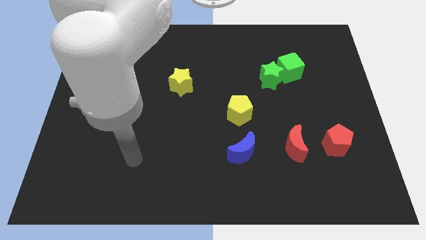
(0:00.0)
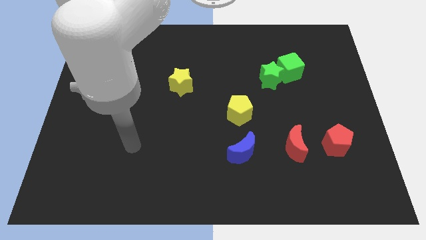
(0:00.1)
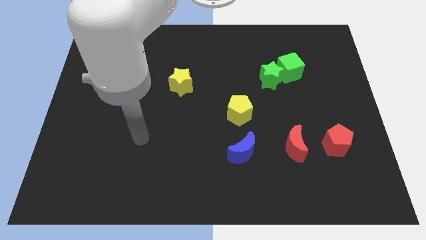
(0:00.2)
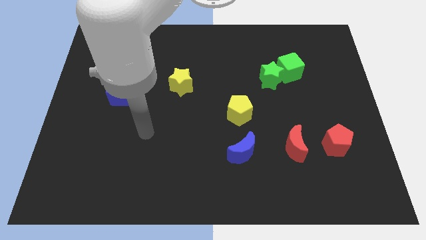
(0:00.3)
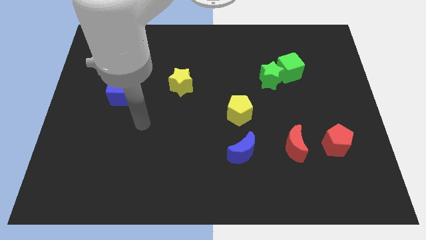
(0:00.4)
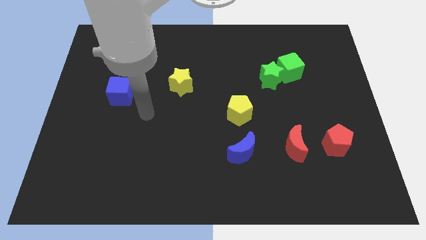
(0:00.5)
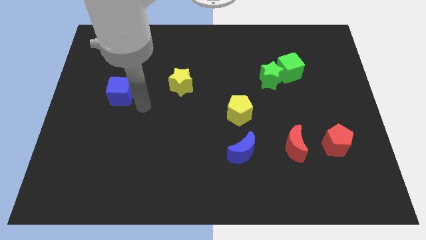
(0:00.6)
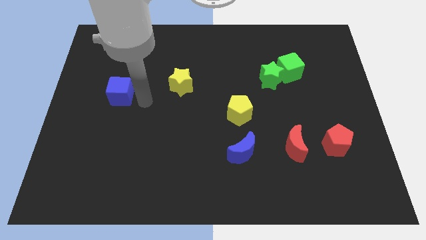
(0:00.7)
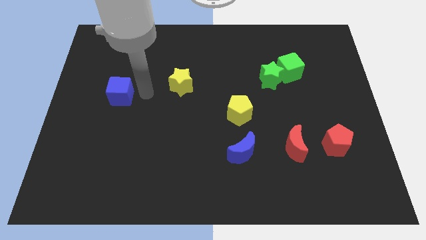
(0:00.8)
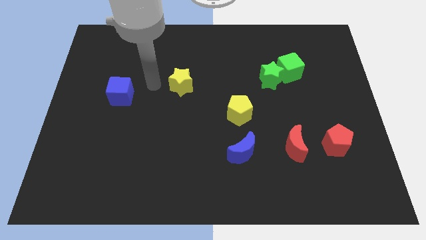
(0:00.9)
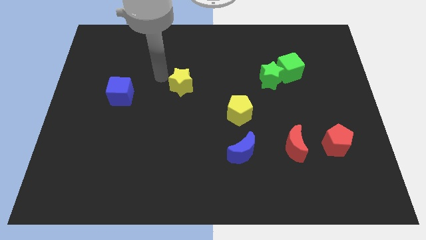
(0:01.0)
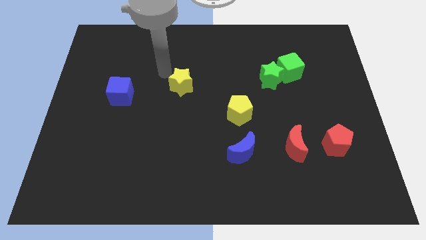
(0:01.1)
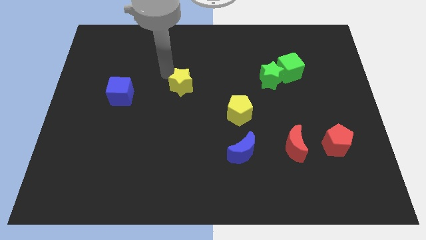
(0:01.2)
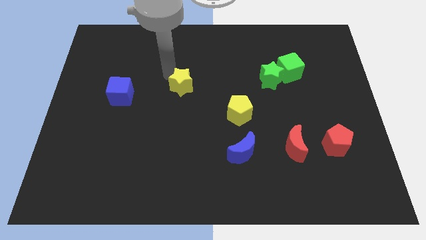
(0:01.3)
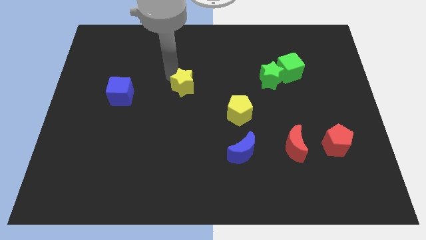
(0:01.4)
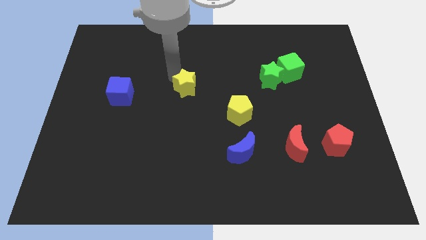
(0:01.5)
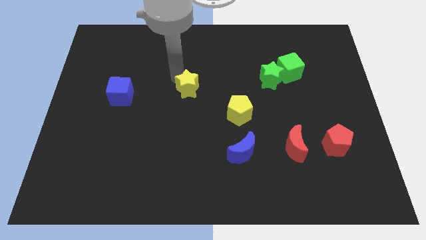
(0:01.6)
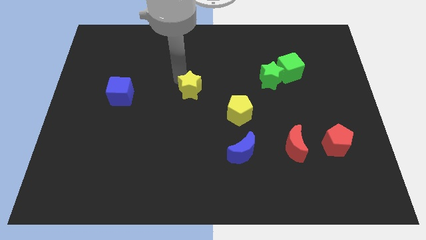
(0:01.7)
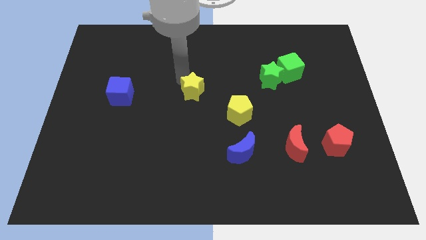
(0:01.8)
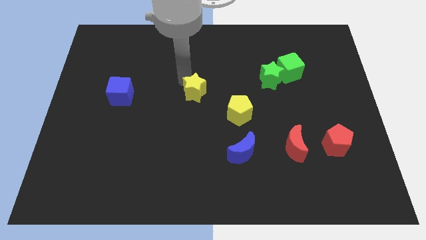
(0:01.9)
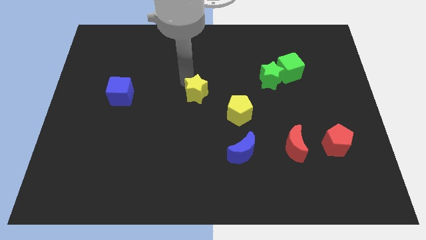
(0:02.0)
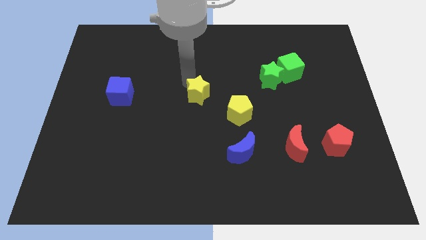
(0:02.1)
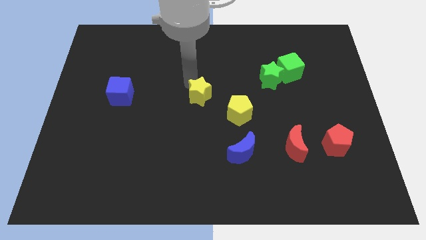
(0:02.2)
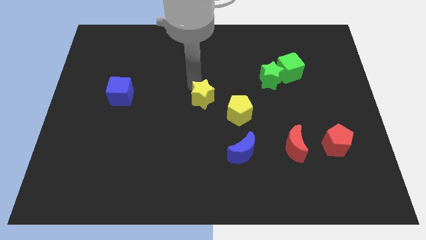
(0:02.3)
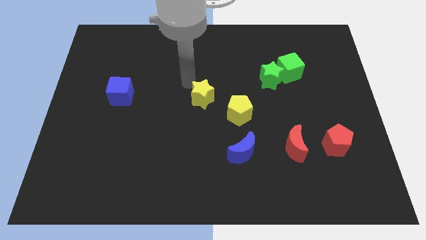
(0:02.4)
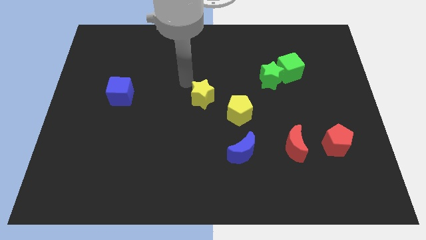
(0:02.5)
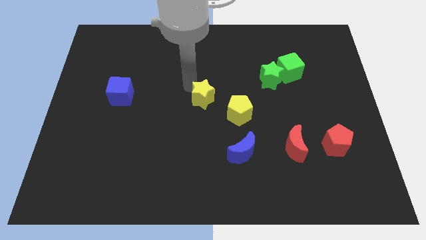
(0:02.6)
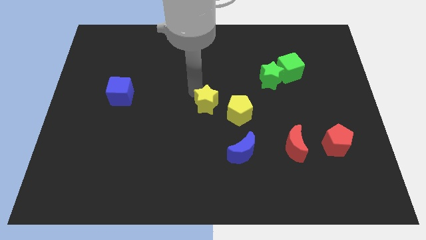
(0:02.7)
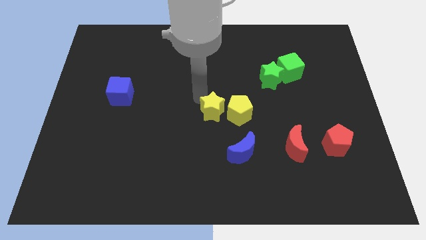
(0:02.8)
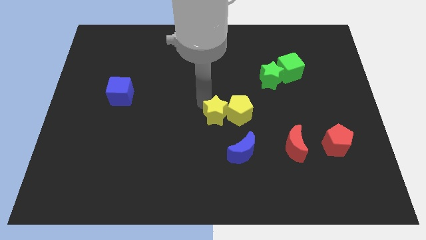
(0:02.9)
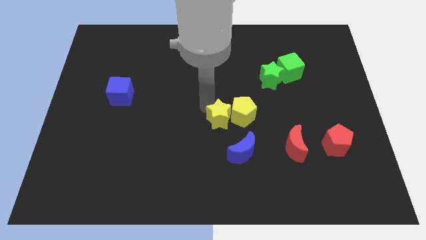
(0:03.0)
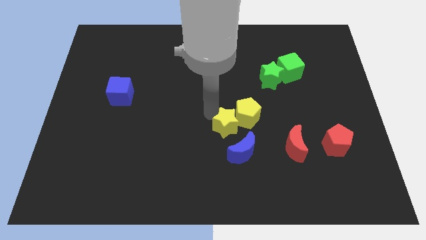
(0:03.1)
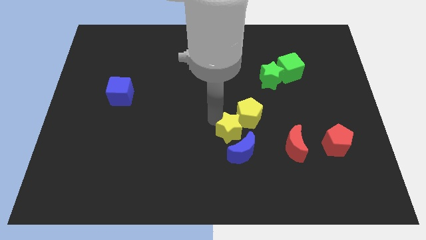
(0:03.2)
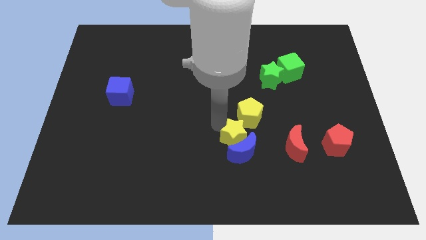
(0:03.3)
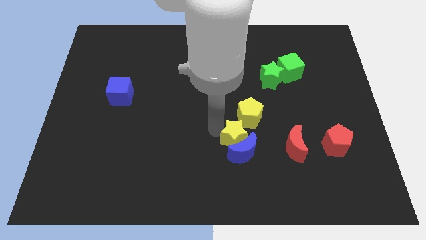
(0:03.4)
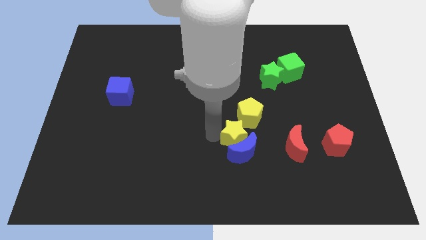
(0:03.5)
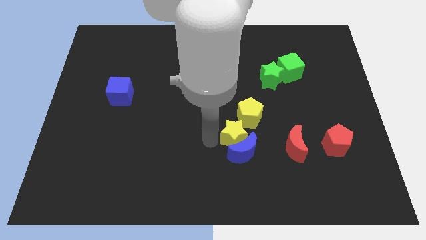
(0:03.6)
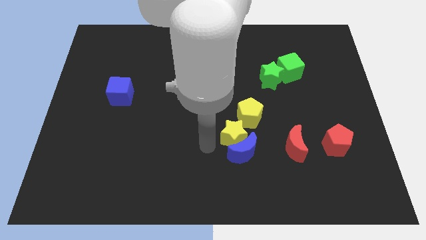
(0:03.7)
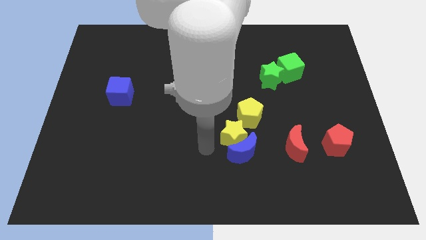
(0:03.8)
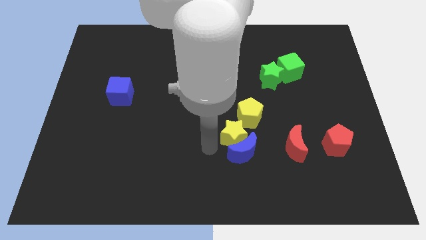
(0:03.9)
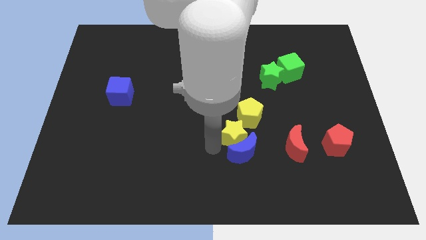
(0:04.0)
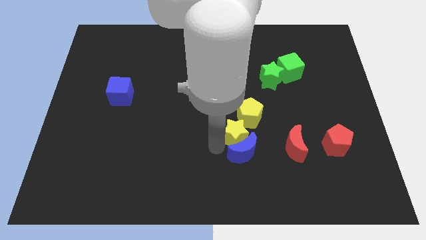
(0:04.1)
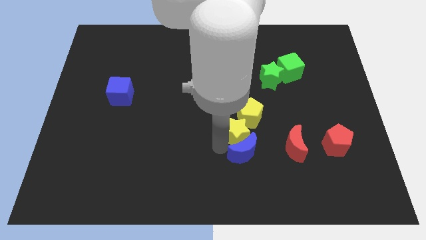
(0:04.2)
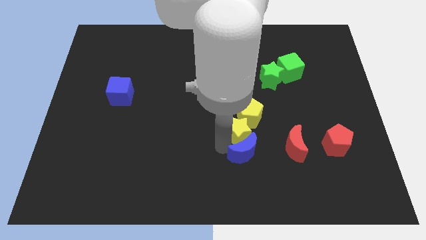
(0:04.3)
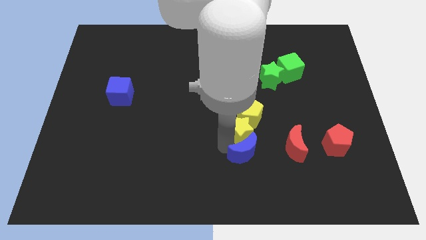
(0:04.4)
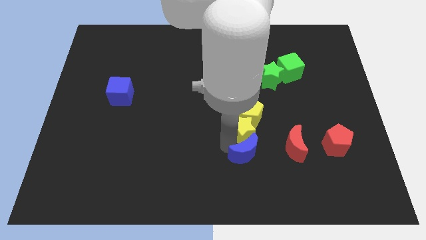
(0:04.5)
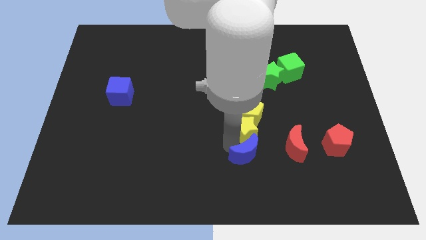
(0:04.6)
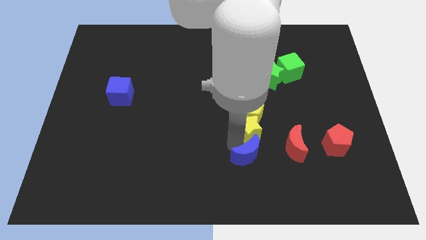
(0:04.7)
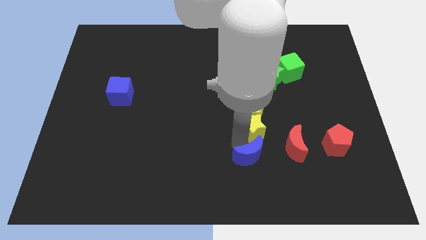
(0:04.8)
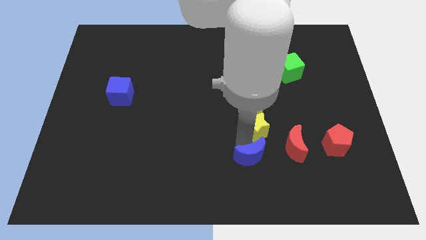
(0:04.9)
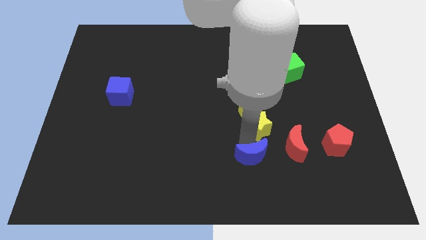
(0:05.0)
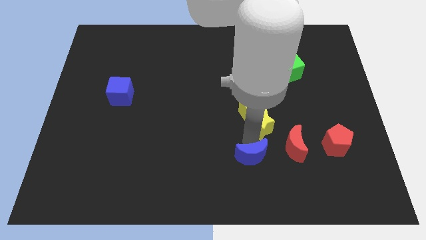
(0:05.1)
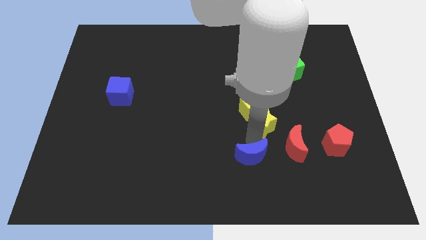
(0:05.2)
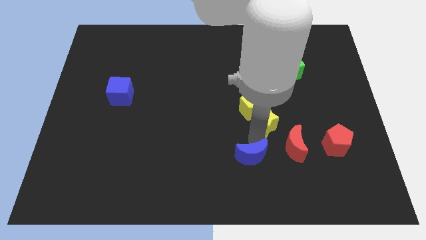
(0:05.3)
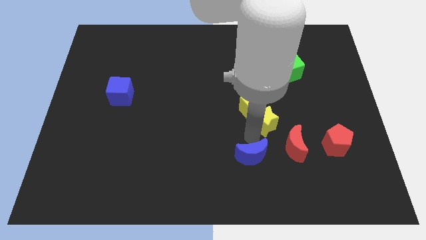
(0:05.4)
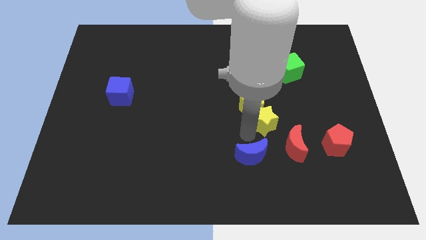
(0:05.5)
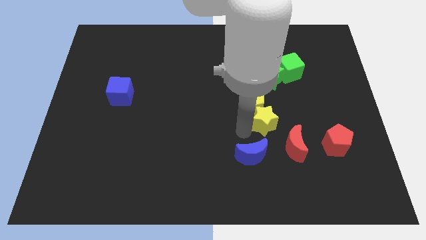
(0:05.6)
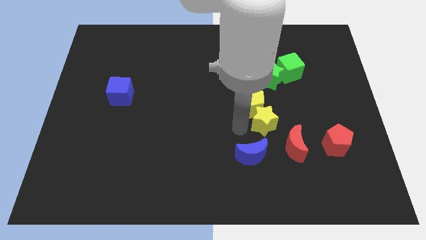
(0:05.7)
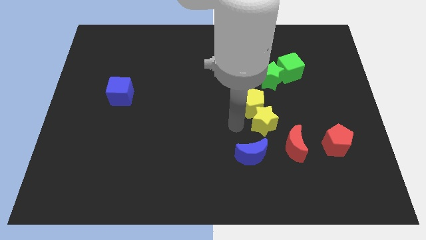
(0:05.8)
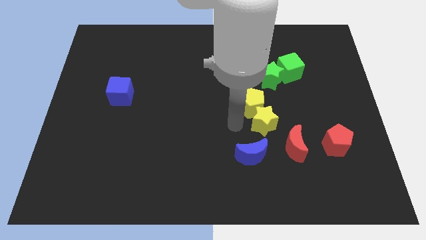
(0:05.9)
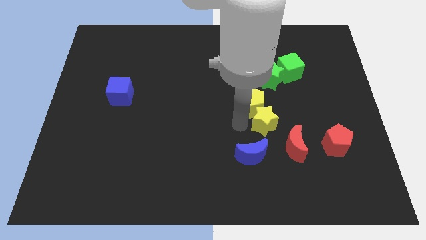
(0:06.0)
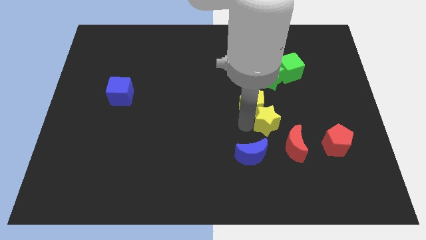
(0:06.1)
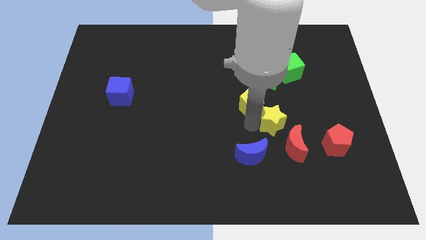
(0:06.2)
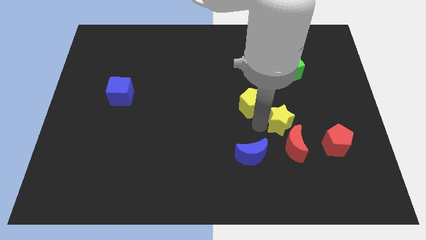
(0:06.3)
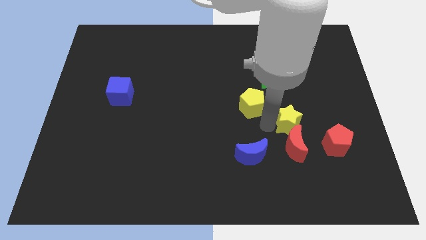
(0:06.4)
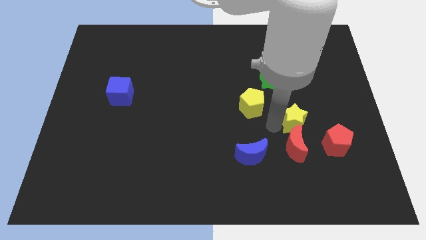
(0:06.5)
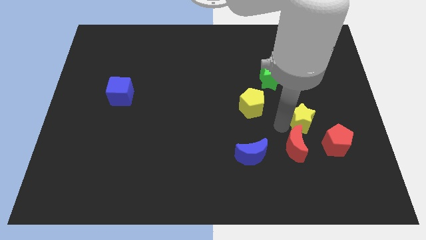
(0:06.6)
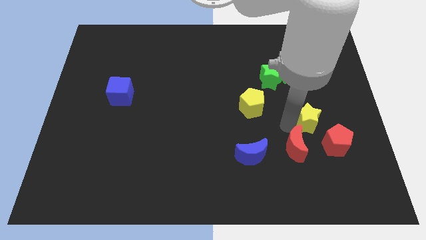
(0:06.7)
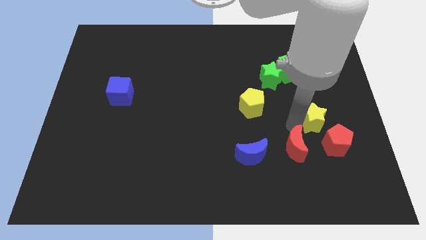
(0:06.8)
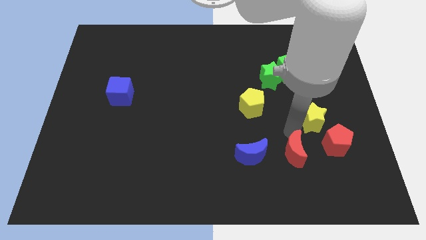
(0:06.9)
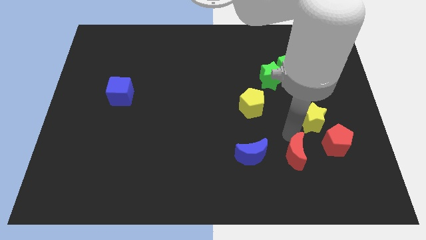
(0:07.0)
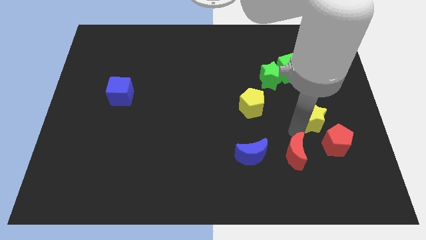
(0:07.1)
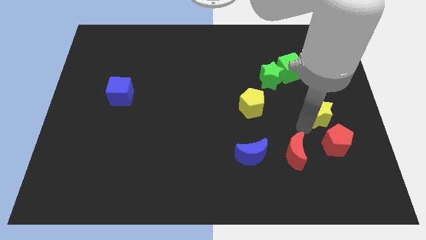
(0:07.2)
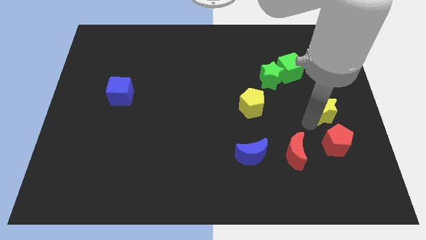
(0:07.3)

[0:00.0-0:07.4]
slide the yellow star to the right side of the board
